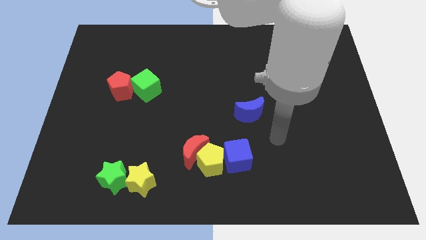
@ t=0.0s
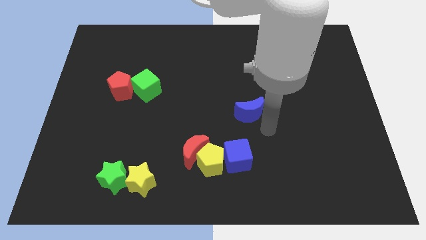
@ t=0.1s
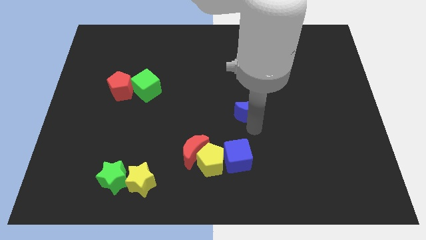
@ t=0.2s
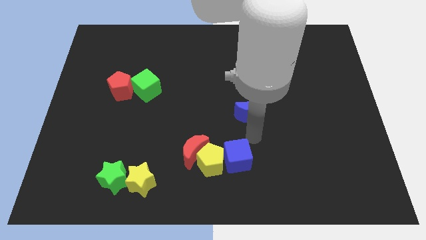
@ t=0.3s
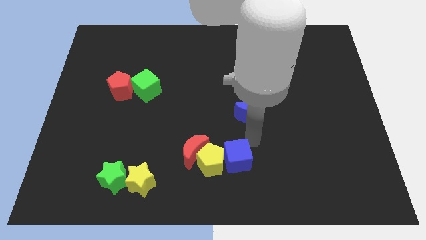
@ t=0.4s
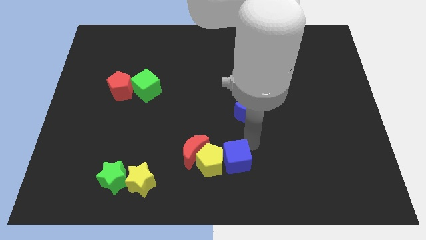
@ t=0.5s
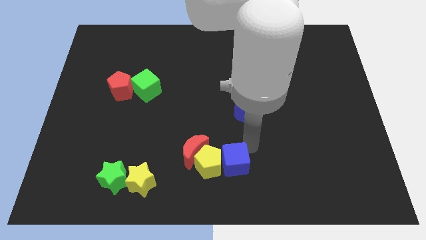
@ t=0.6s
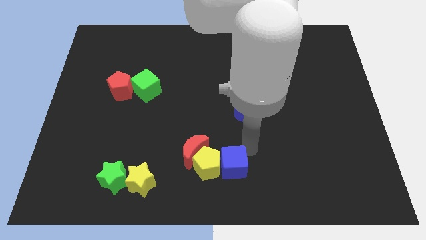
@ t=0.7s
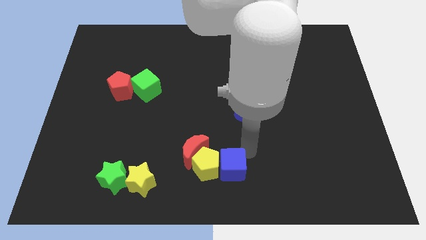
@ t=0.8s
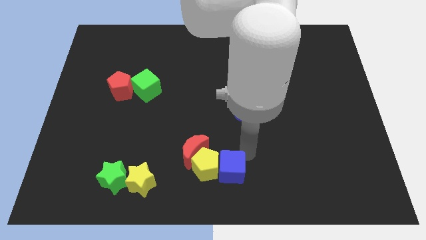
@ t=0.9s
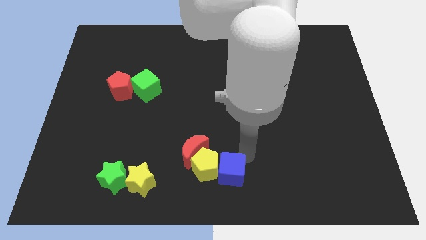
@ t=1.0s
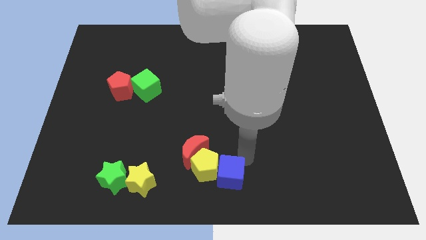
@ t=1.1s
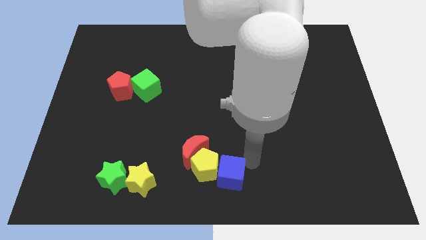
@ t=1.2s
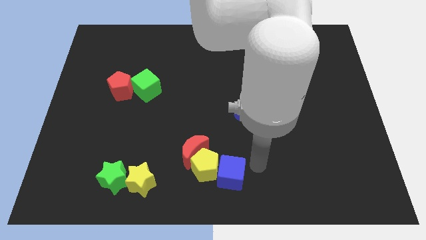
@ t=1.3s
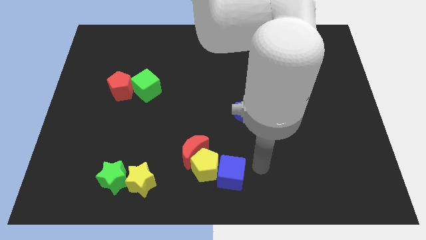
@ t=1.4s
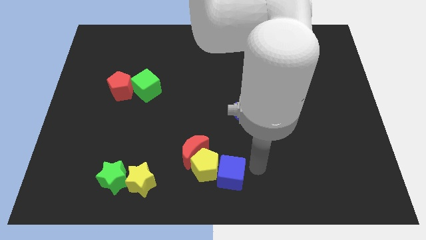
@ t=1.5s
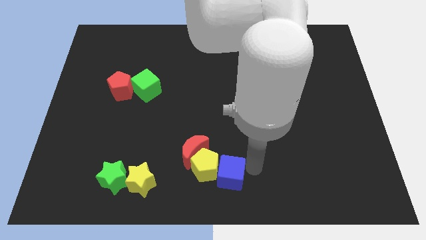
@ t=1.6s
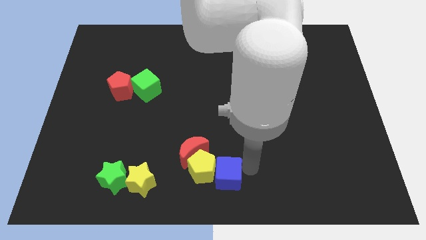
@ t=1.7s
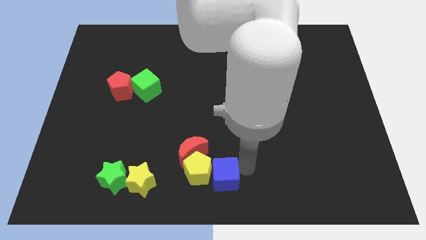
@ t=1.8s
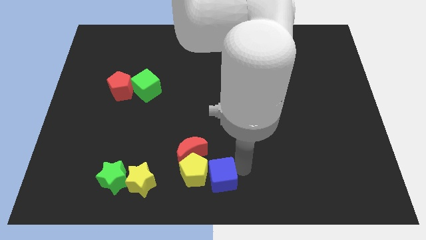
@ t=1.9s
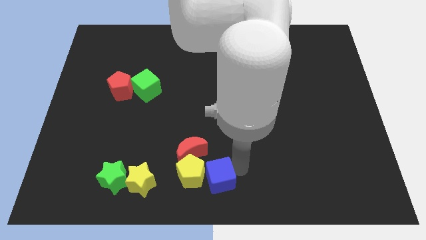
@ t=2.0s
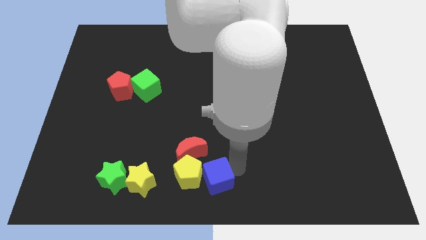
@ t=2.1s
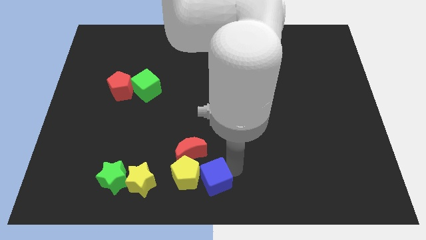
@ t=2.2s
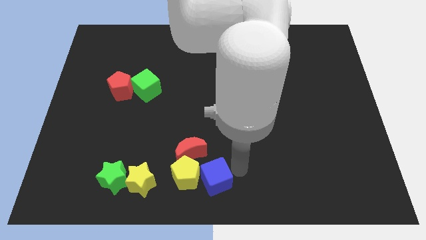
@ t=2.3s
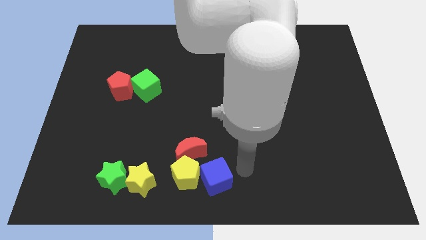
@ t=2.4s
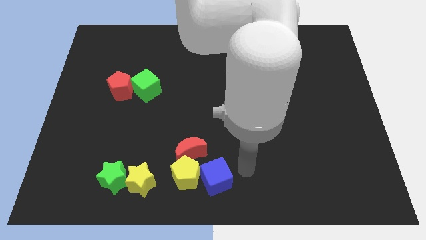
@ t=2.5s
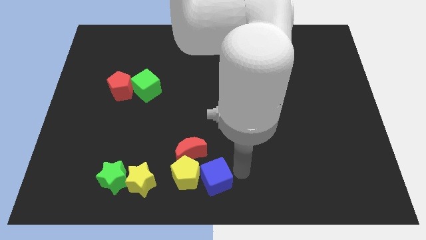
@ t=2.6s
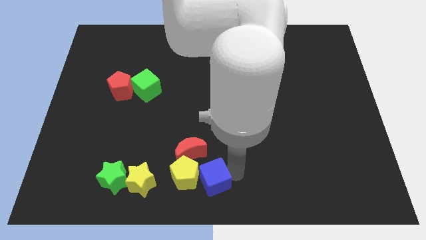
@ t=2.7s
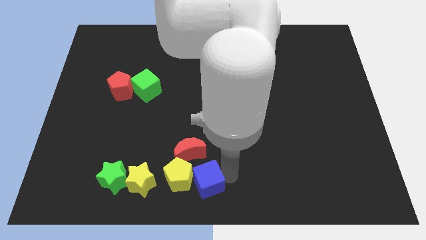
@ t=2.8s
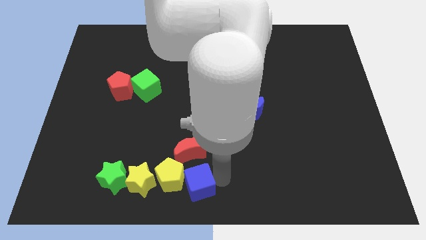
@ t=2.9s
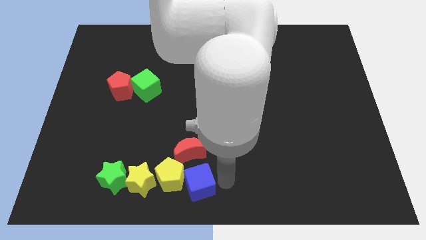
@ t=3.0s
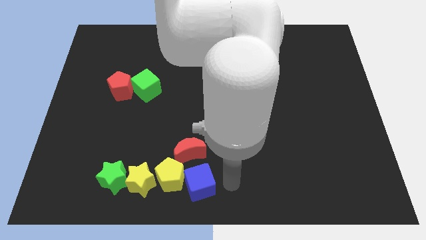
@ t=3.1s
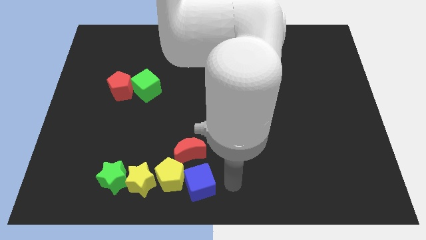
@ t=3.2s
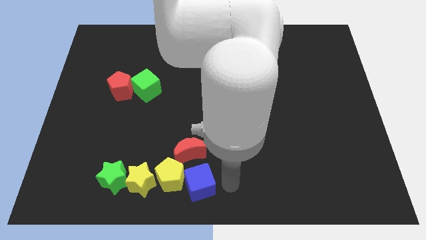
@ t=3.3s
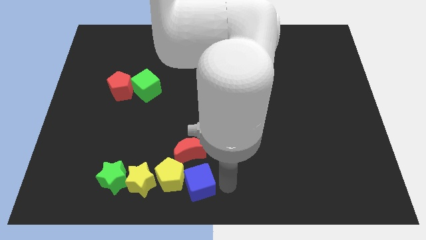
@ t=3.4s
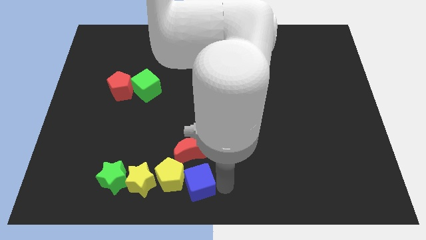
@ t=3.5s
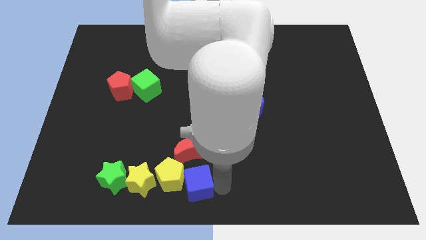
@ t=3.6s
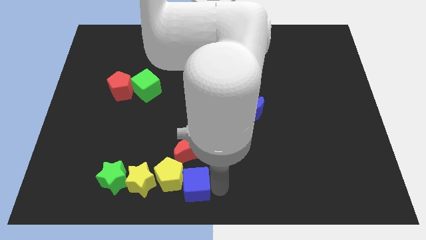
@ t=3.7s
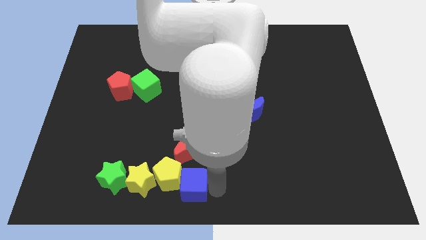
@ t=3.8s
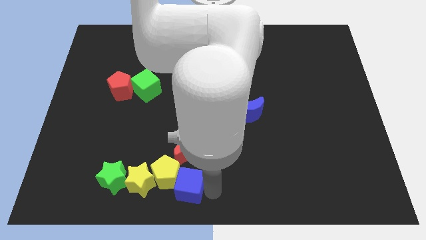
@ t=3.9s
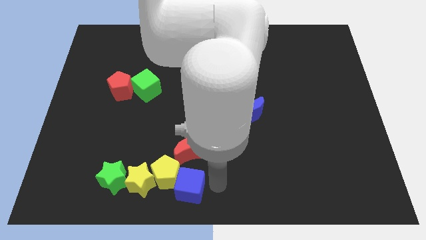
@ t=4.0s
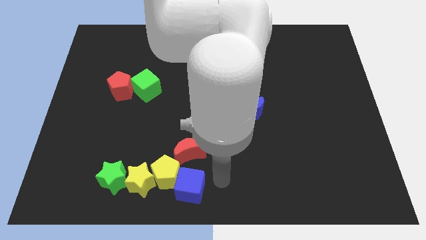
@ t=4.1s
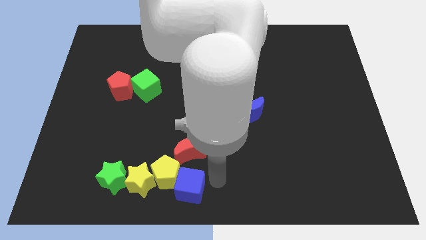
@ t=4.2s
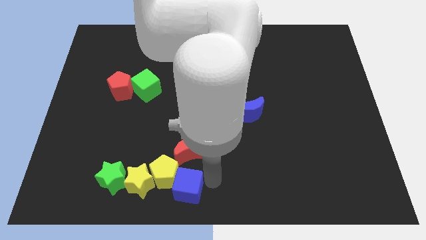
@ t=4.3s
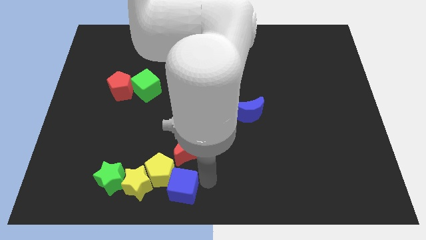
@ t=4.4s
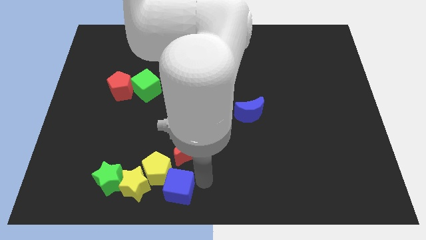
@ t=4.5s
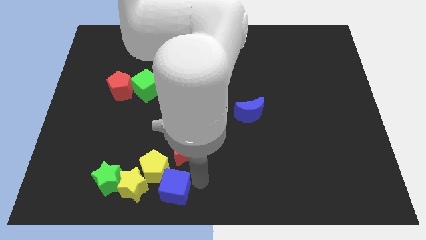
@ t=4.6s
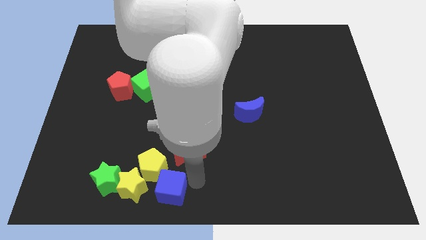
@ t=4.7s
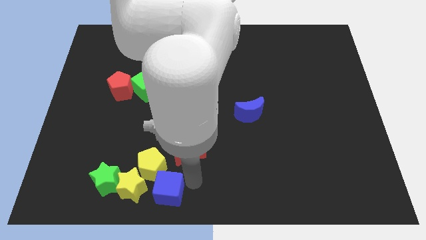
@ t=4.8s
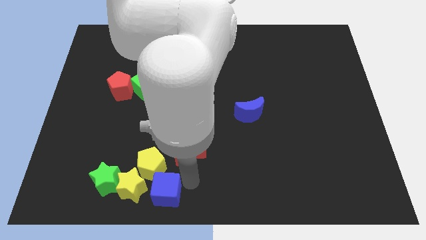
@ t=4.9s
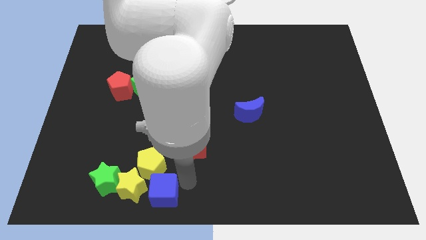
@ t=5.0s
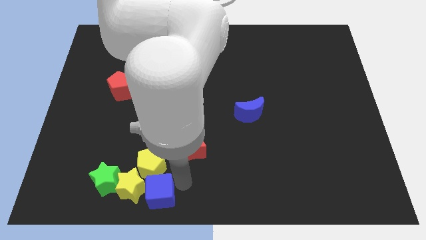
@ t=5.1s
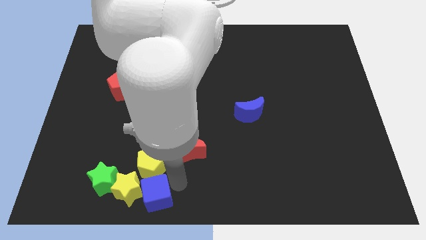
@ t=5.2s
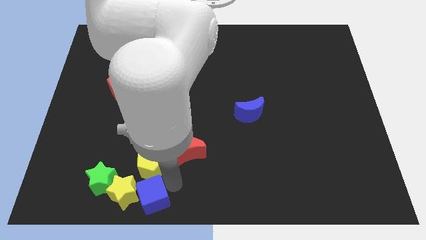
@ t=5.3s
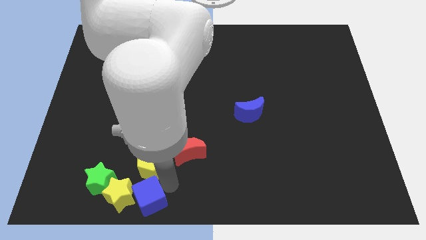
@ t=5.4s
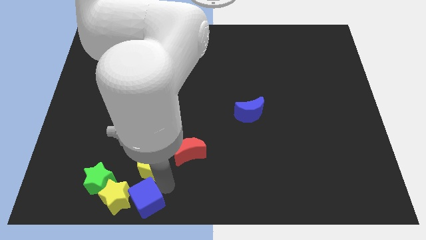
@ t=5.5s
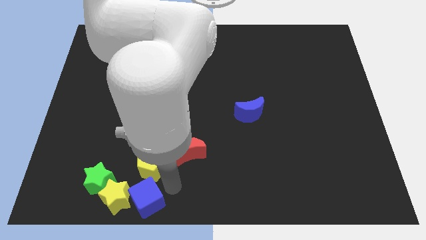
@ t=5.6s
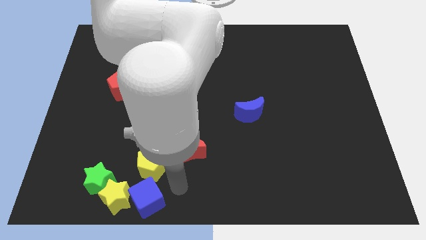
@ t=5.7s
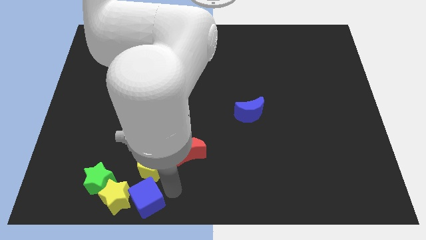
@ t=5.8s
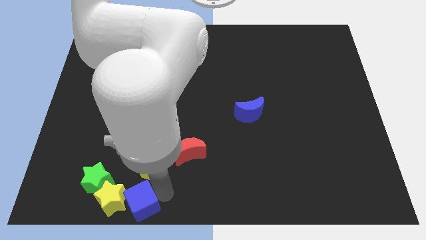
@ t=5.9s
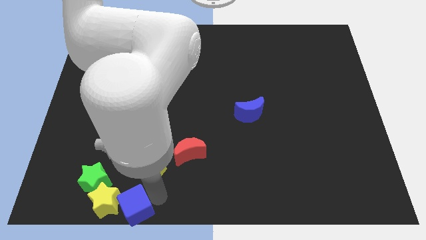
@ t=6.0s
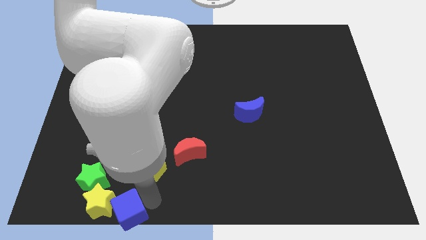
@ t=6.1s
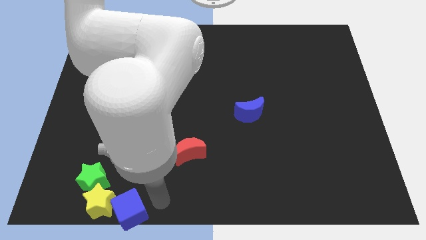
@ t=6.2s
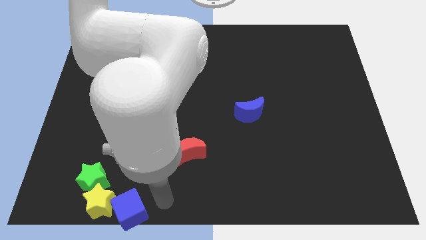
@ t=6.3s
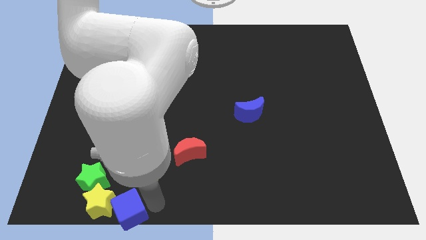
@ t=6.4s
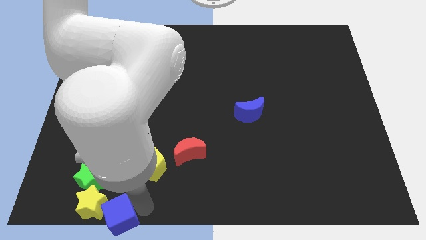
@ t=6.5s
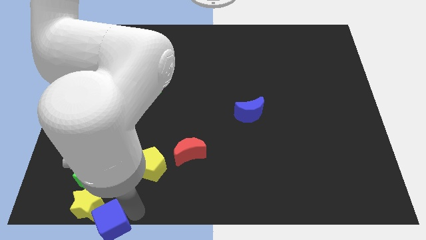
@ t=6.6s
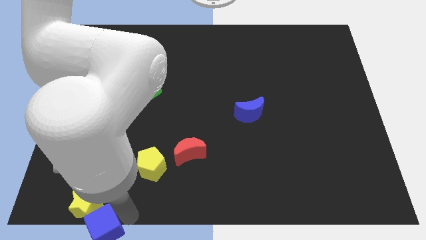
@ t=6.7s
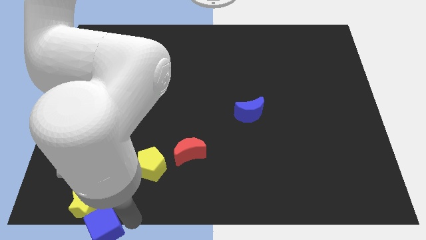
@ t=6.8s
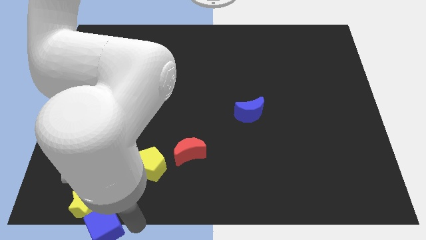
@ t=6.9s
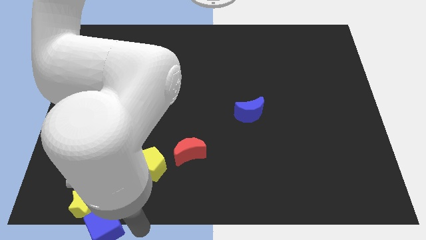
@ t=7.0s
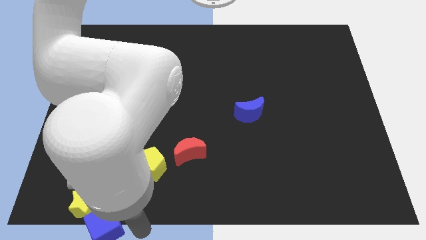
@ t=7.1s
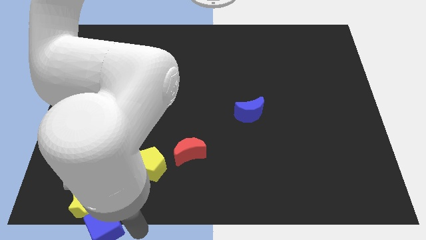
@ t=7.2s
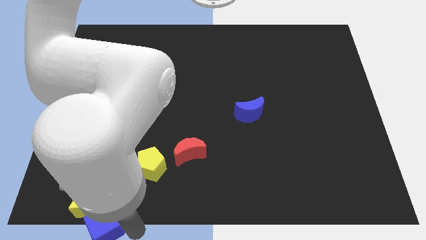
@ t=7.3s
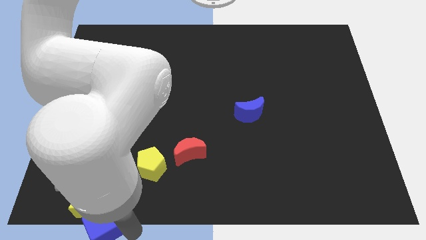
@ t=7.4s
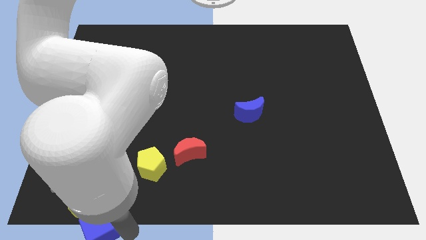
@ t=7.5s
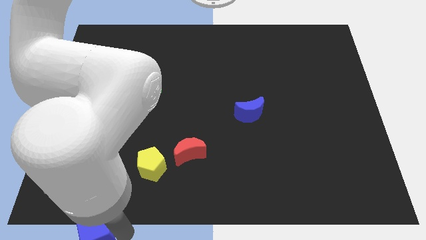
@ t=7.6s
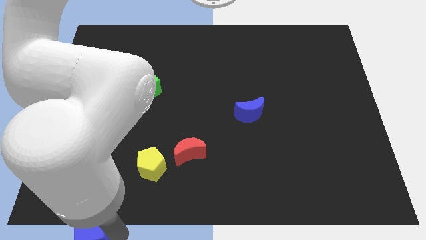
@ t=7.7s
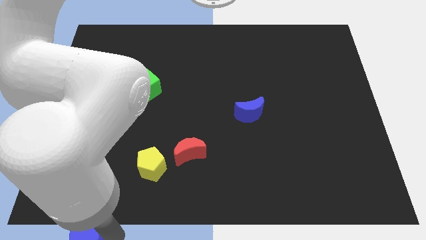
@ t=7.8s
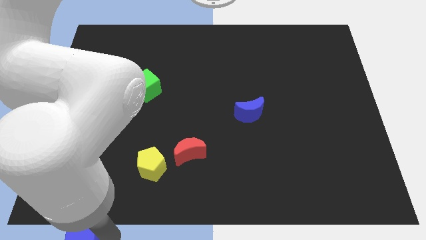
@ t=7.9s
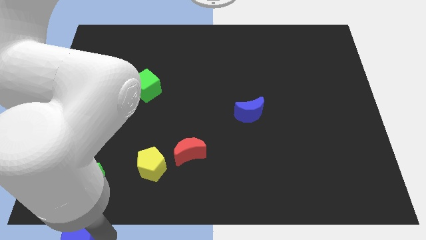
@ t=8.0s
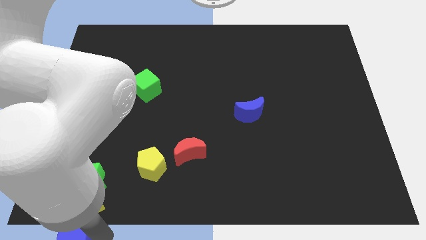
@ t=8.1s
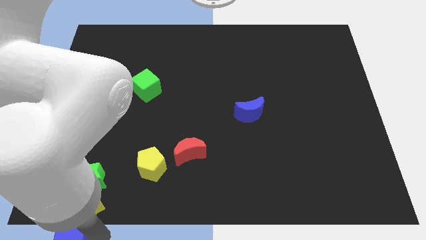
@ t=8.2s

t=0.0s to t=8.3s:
put the blue cube to the bottom left corner
